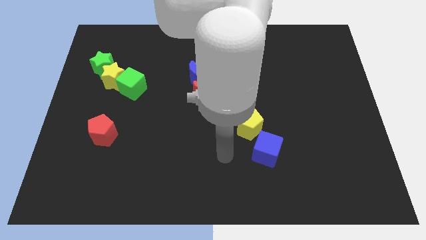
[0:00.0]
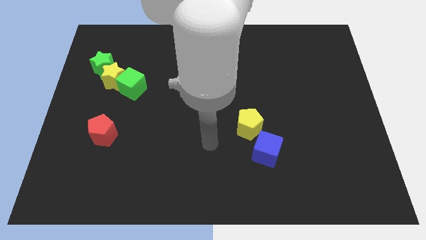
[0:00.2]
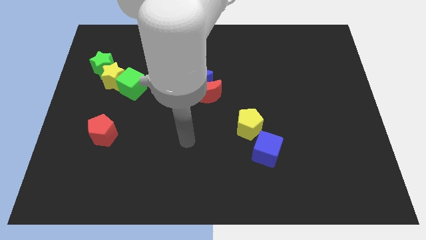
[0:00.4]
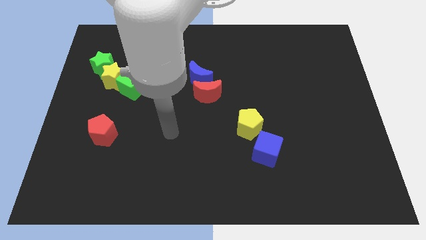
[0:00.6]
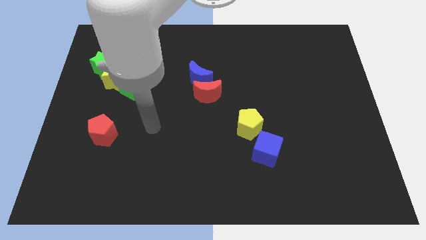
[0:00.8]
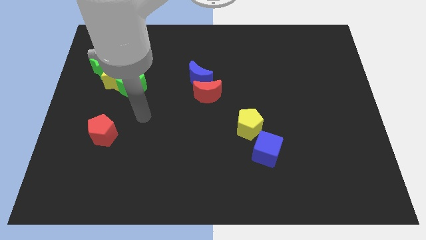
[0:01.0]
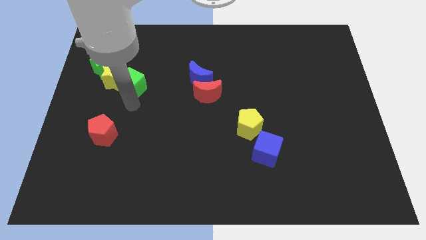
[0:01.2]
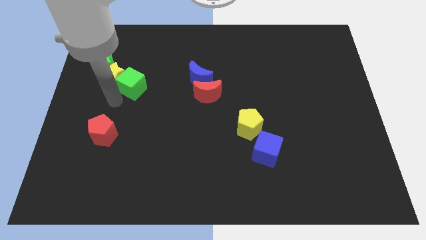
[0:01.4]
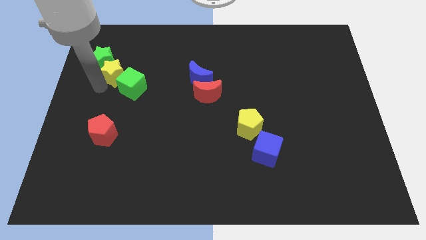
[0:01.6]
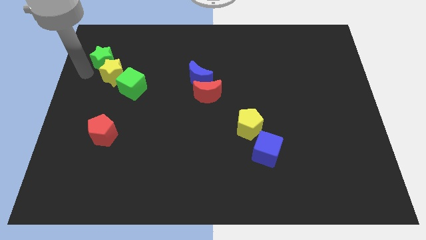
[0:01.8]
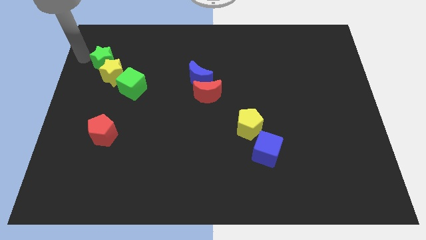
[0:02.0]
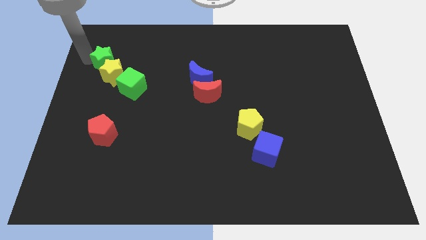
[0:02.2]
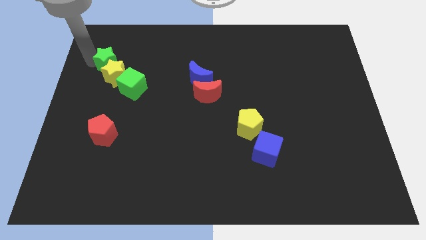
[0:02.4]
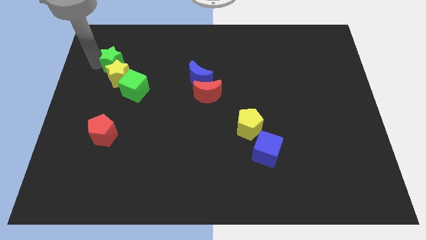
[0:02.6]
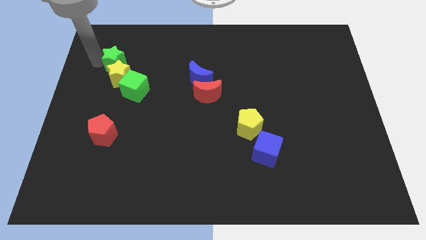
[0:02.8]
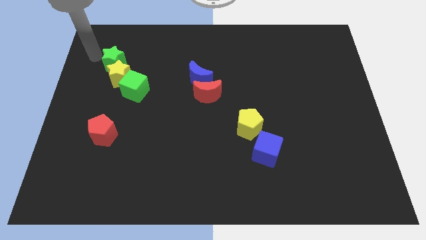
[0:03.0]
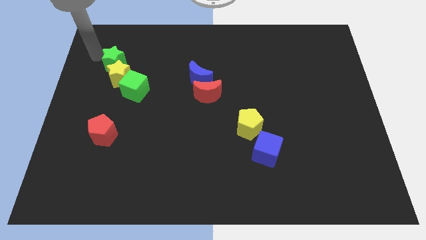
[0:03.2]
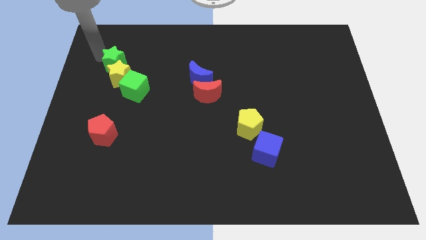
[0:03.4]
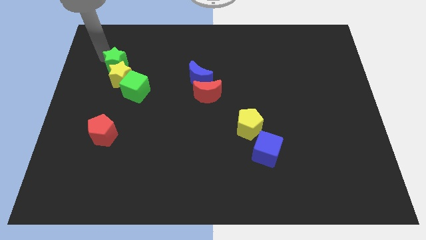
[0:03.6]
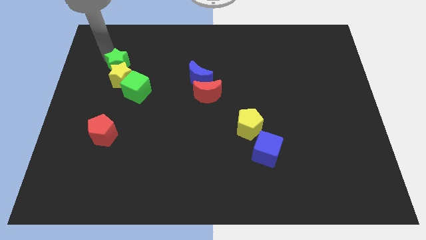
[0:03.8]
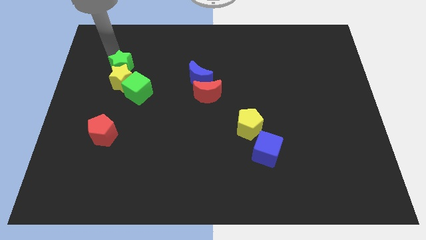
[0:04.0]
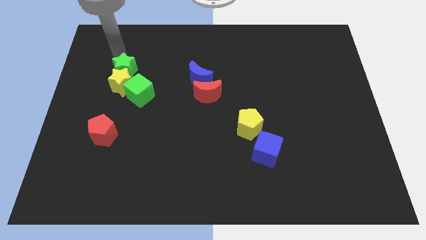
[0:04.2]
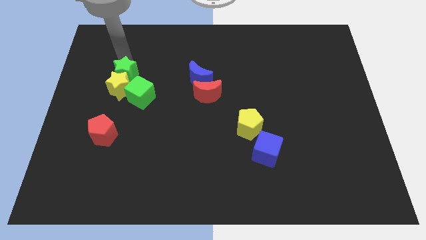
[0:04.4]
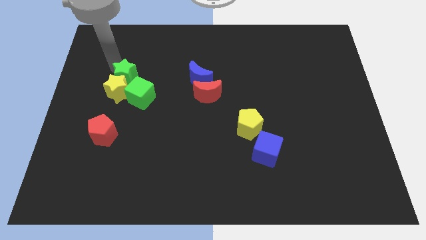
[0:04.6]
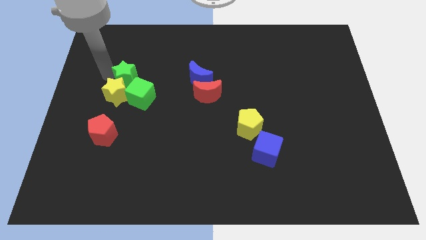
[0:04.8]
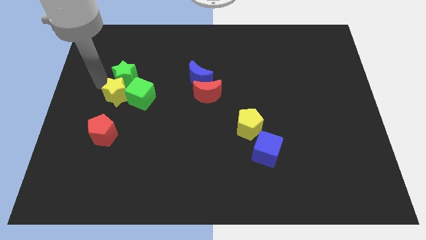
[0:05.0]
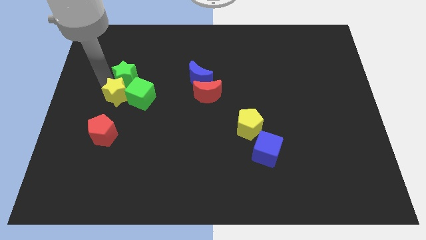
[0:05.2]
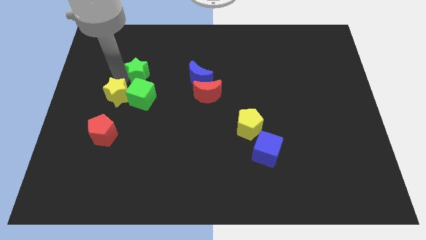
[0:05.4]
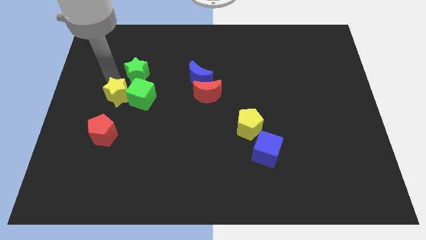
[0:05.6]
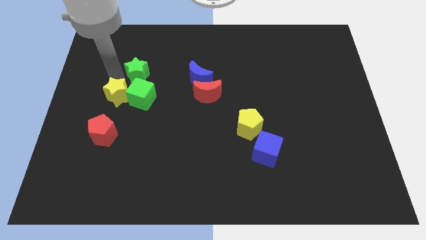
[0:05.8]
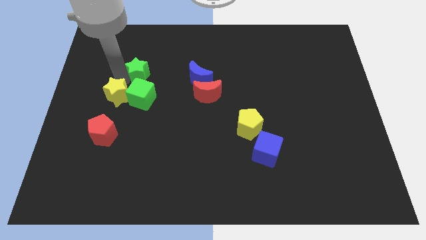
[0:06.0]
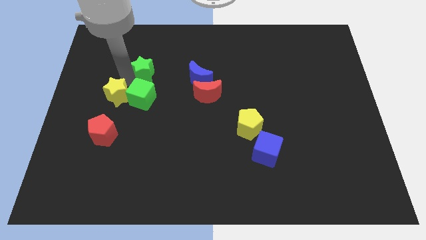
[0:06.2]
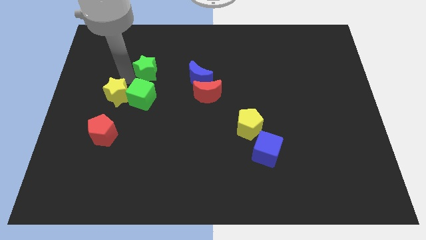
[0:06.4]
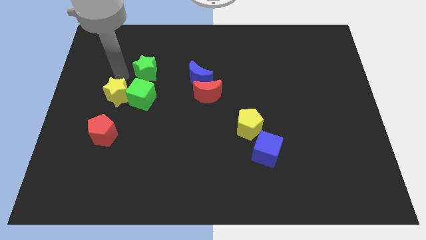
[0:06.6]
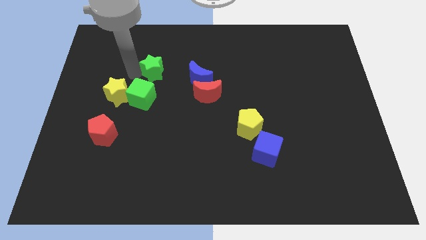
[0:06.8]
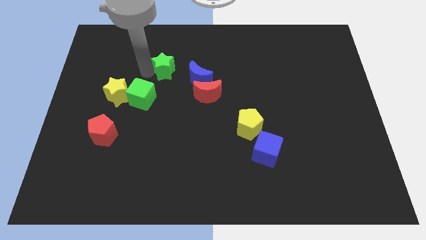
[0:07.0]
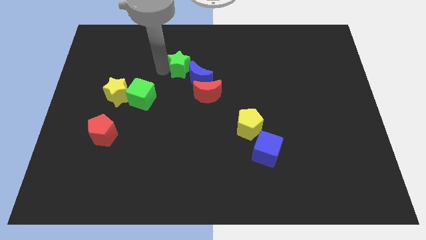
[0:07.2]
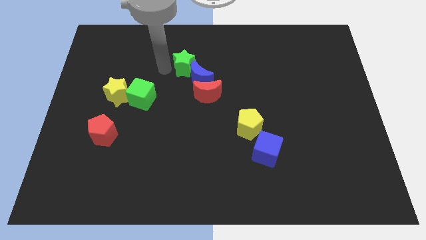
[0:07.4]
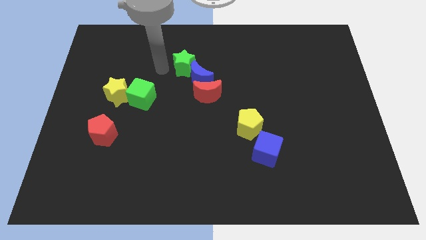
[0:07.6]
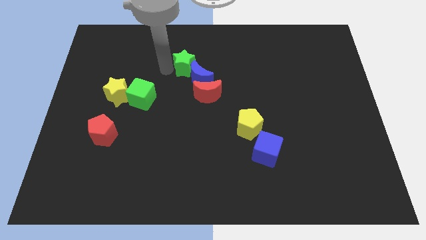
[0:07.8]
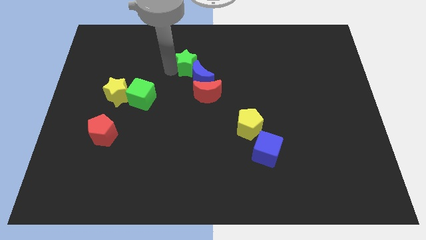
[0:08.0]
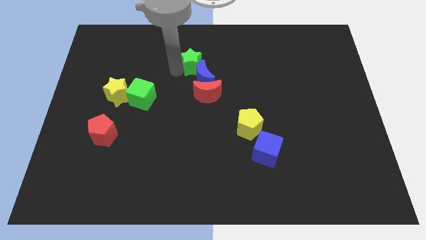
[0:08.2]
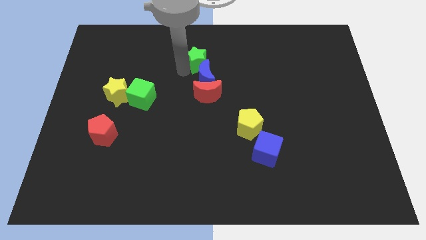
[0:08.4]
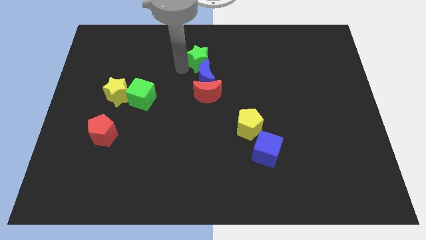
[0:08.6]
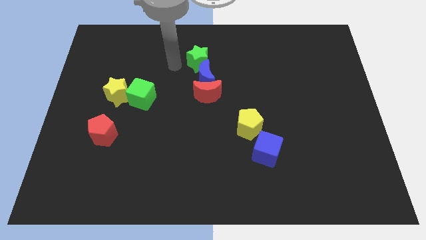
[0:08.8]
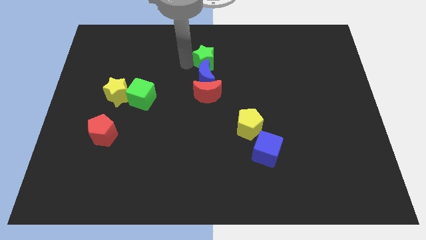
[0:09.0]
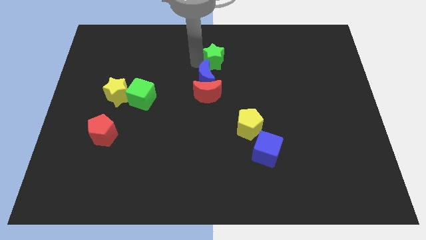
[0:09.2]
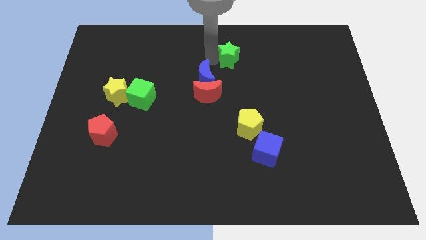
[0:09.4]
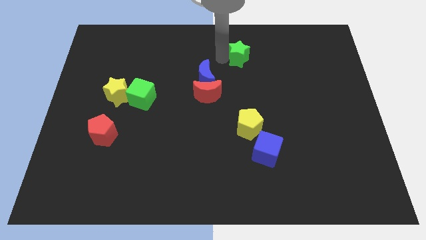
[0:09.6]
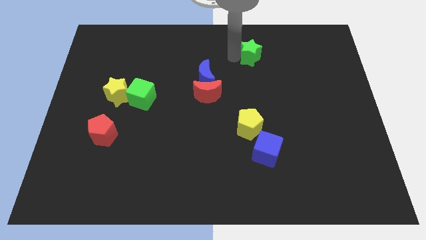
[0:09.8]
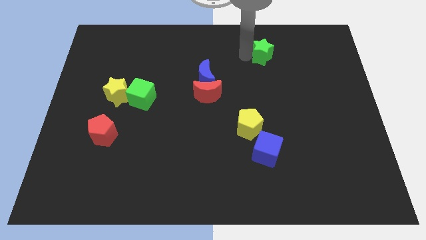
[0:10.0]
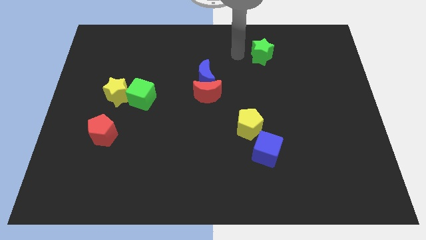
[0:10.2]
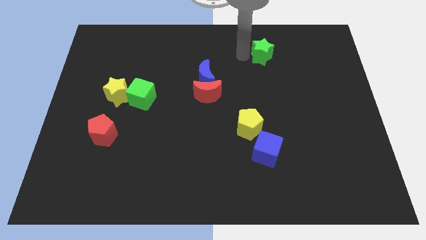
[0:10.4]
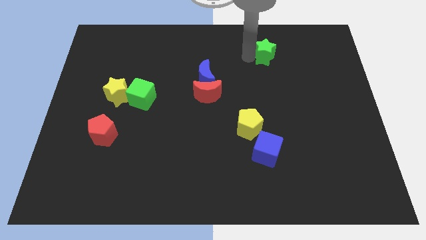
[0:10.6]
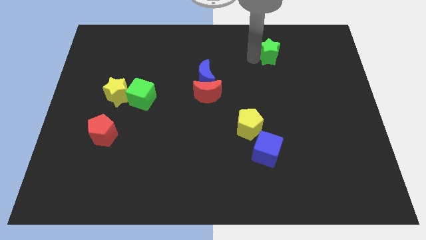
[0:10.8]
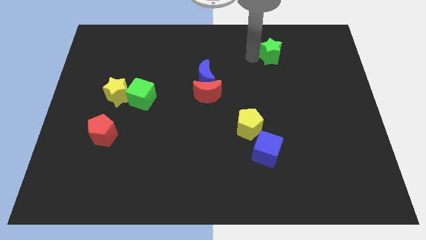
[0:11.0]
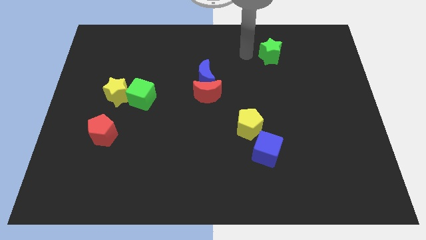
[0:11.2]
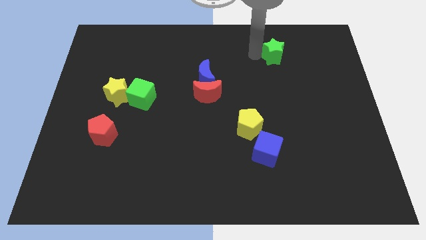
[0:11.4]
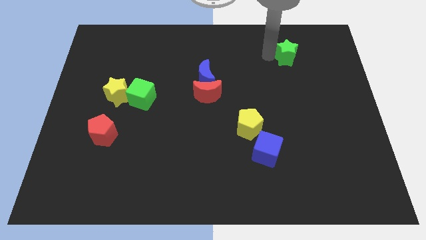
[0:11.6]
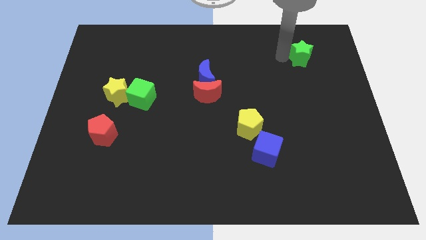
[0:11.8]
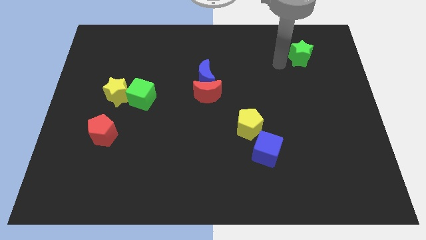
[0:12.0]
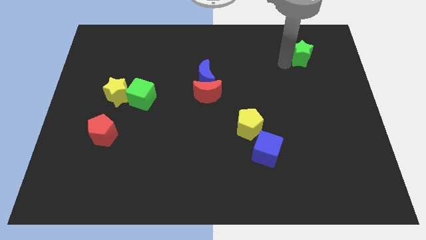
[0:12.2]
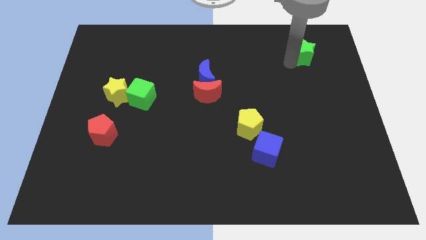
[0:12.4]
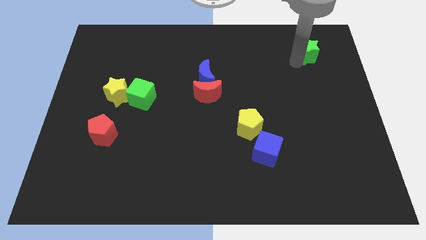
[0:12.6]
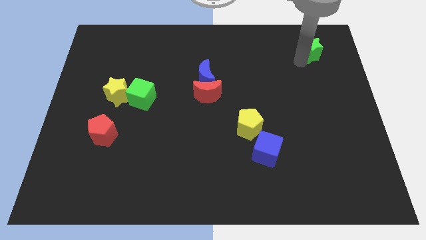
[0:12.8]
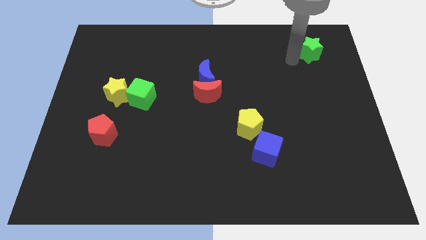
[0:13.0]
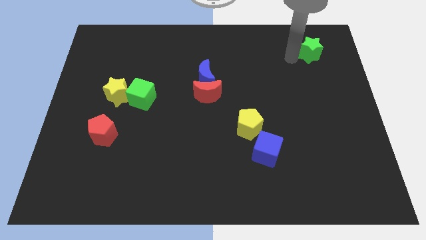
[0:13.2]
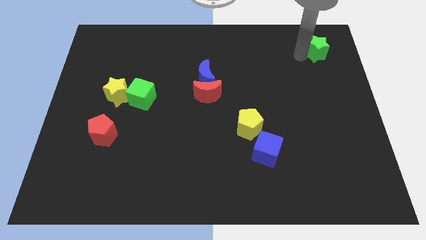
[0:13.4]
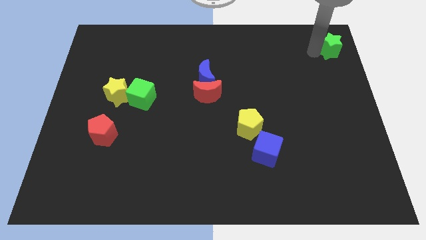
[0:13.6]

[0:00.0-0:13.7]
put the green star to the top right corner

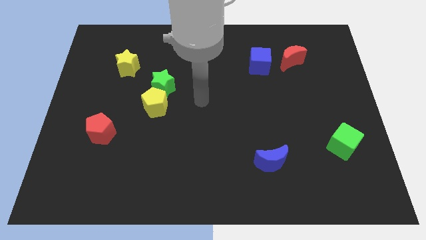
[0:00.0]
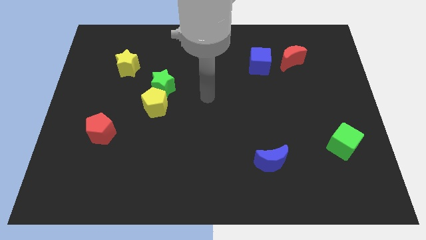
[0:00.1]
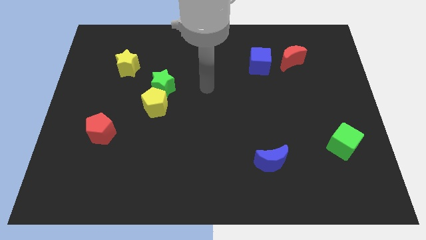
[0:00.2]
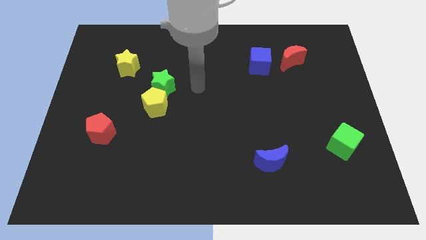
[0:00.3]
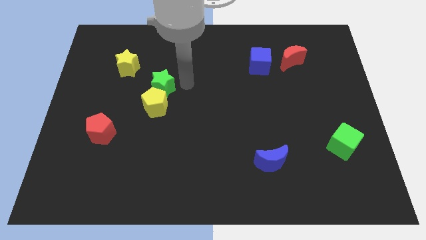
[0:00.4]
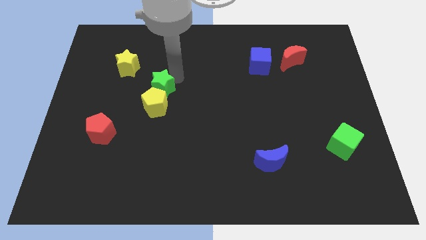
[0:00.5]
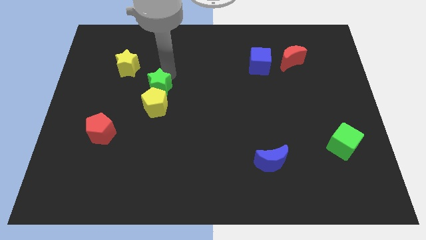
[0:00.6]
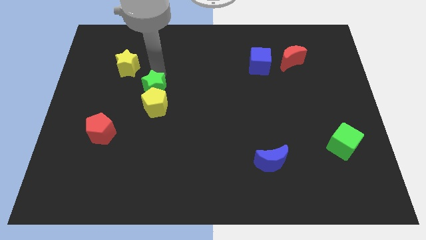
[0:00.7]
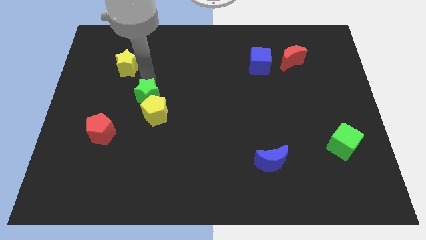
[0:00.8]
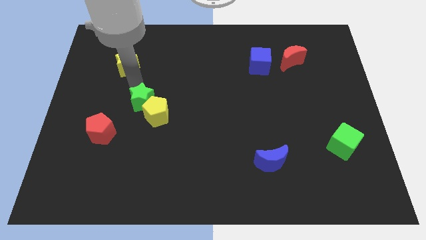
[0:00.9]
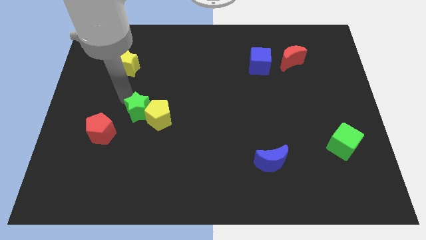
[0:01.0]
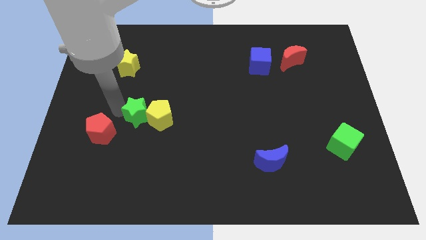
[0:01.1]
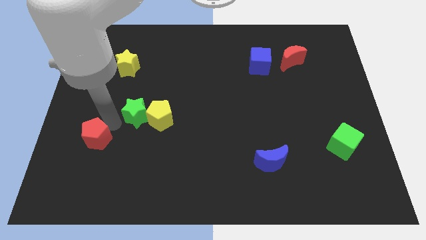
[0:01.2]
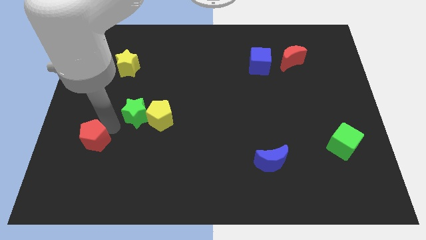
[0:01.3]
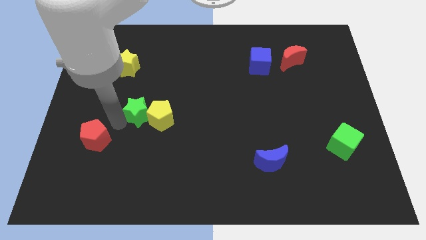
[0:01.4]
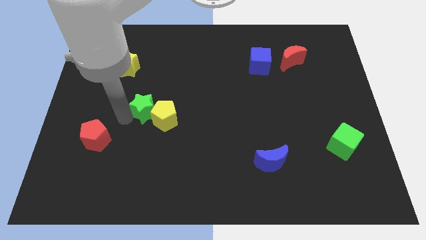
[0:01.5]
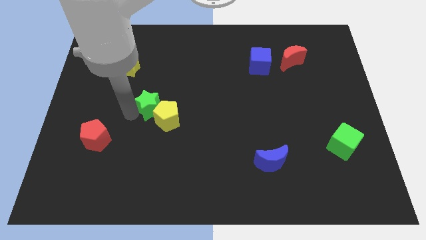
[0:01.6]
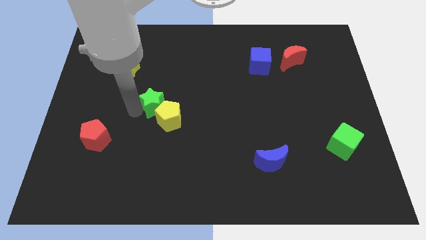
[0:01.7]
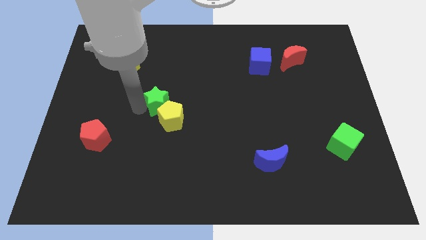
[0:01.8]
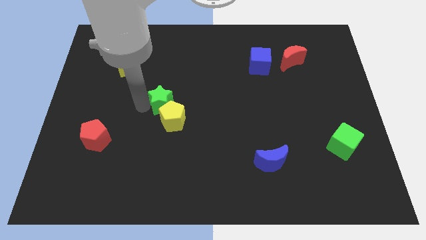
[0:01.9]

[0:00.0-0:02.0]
move the green star to the middle of the board
